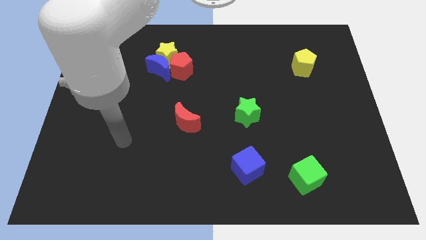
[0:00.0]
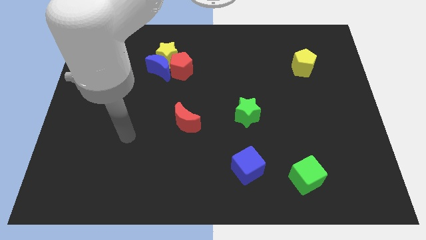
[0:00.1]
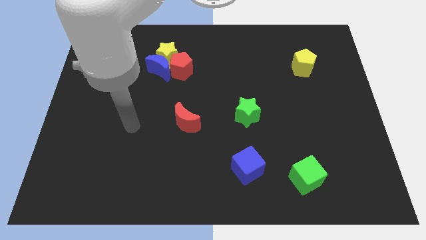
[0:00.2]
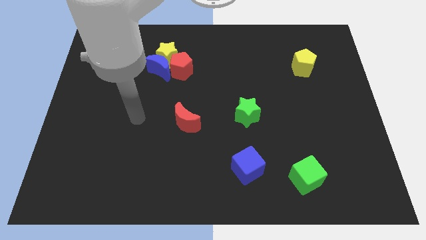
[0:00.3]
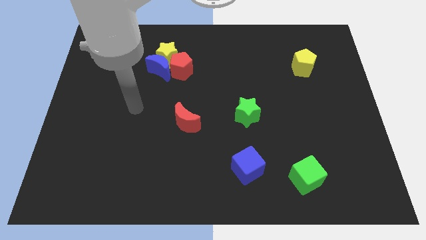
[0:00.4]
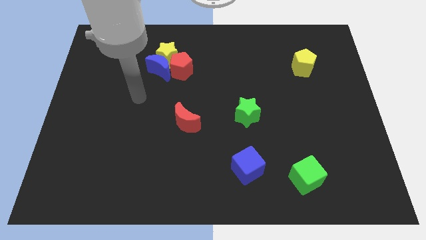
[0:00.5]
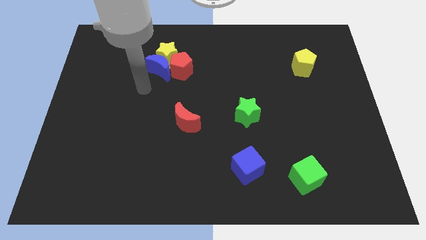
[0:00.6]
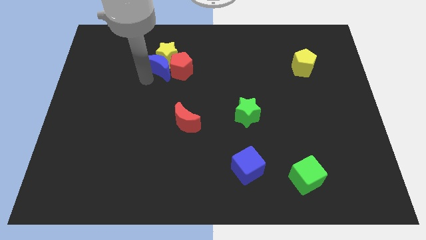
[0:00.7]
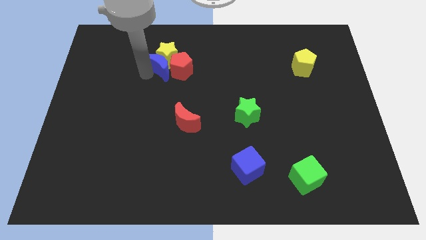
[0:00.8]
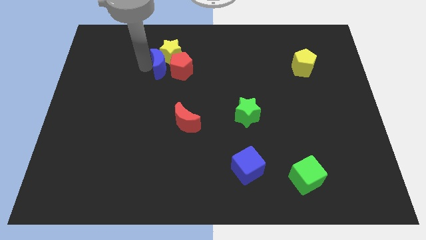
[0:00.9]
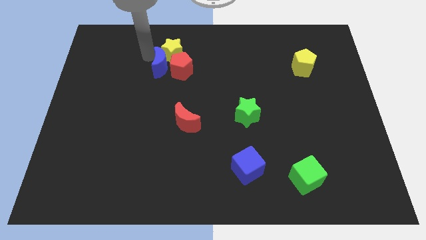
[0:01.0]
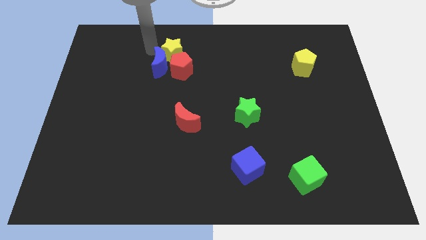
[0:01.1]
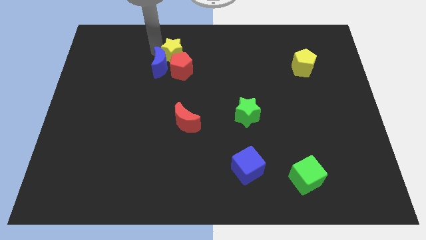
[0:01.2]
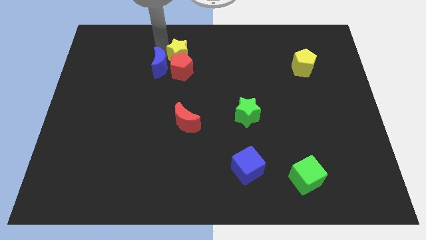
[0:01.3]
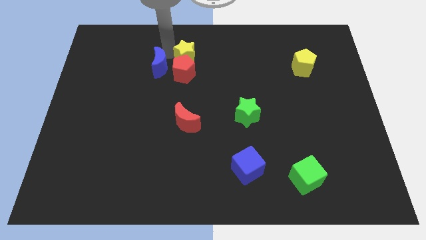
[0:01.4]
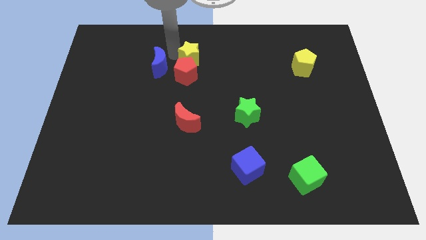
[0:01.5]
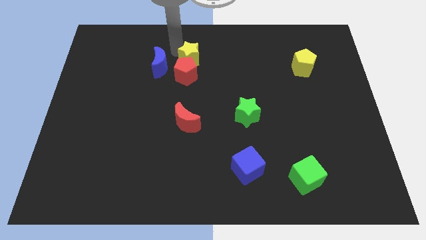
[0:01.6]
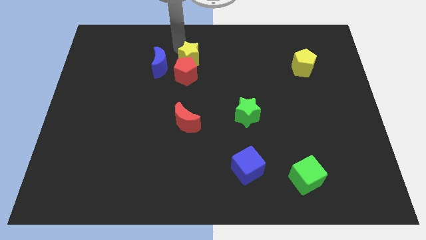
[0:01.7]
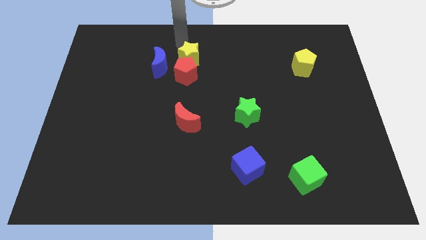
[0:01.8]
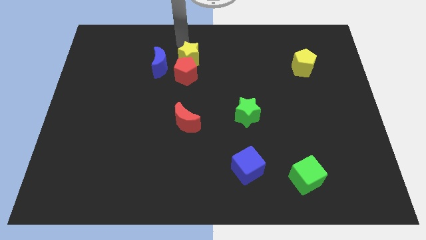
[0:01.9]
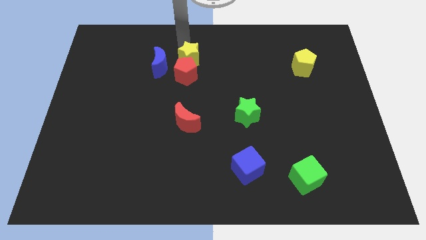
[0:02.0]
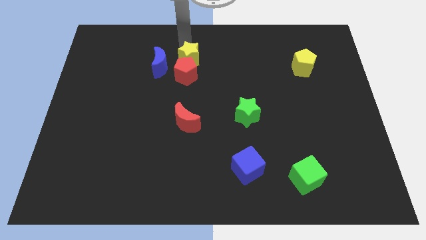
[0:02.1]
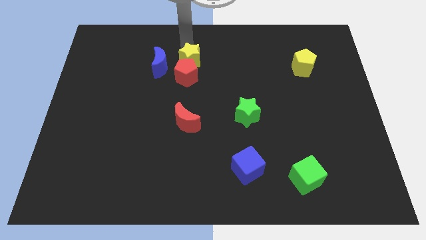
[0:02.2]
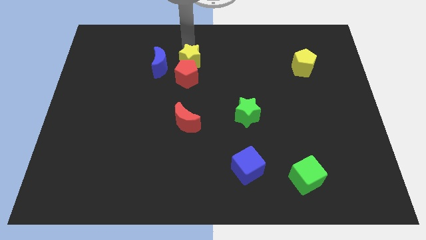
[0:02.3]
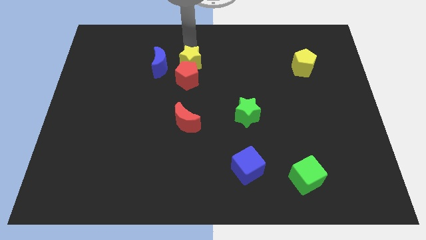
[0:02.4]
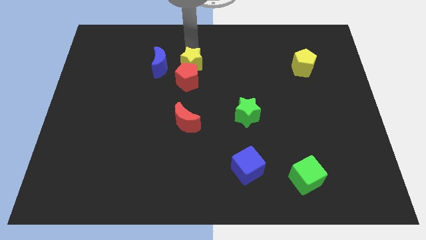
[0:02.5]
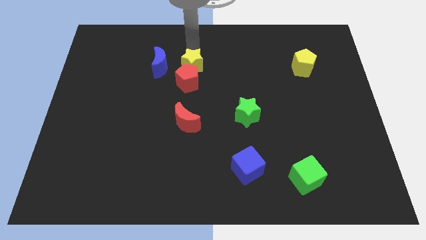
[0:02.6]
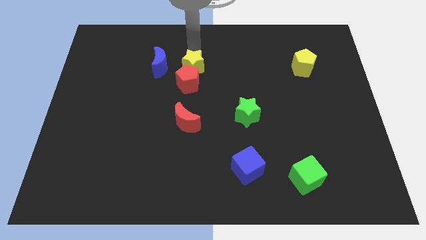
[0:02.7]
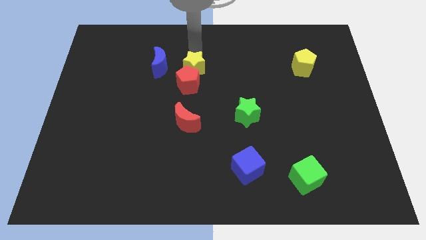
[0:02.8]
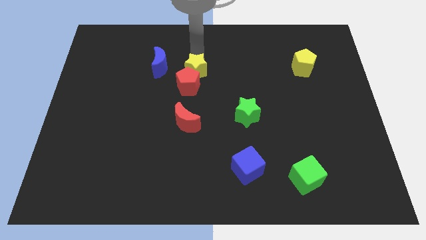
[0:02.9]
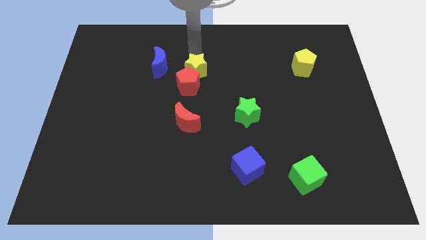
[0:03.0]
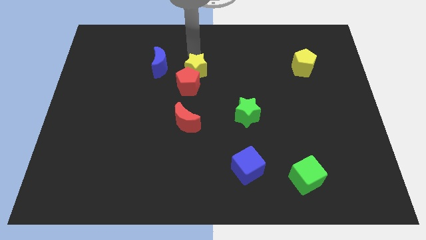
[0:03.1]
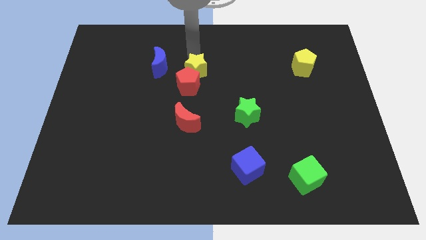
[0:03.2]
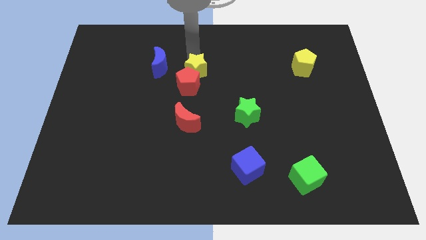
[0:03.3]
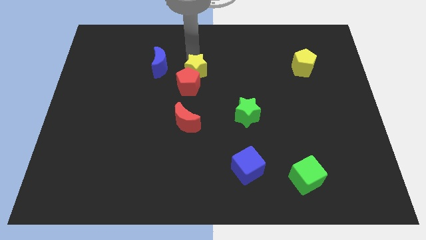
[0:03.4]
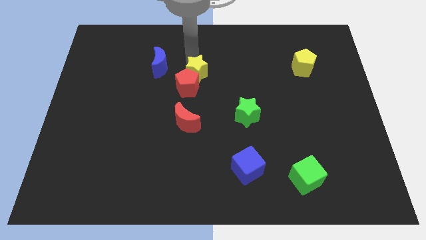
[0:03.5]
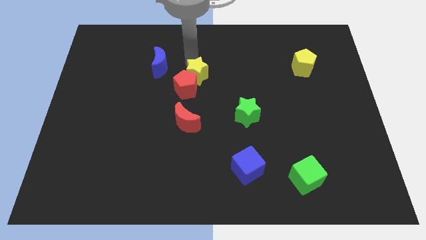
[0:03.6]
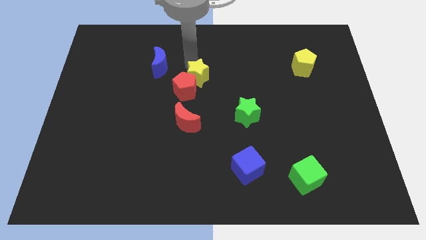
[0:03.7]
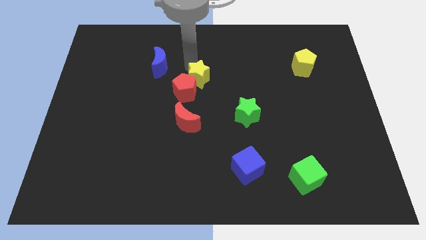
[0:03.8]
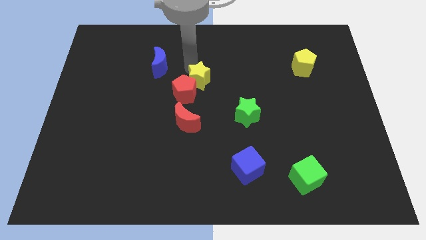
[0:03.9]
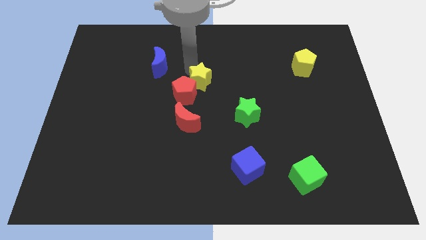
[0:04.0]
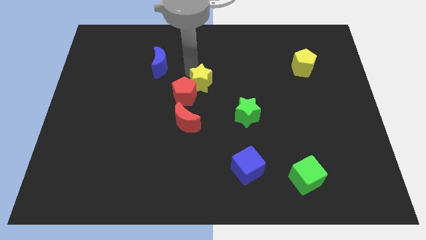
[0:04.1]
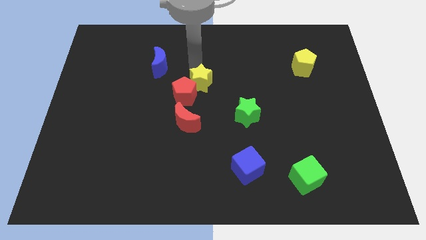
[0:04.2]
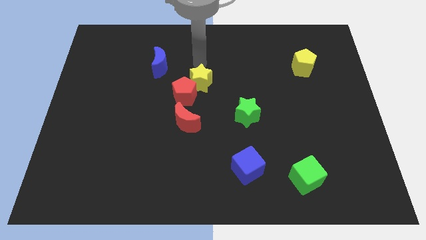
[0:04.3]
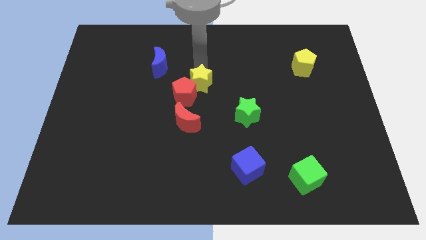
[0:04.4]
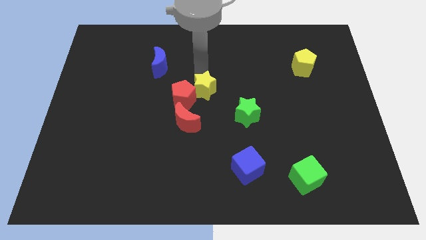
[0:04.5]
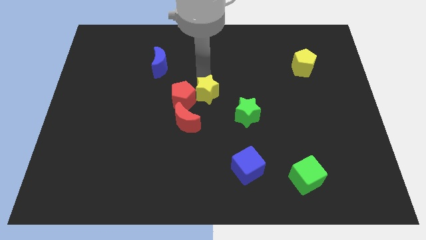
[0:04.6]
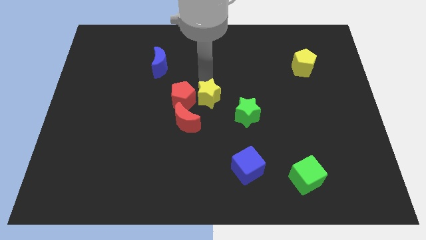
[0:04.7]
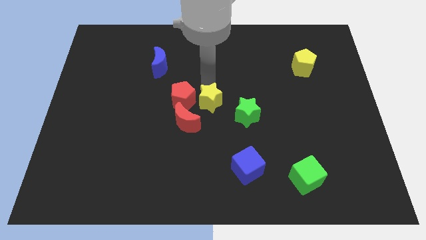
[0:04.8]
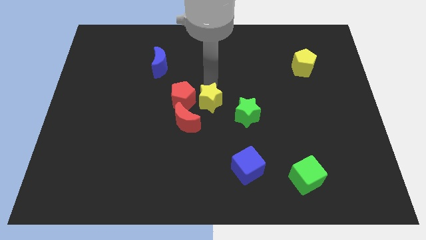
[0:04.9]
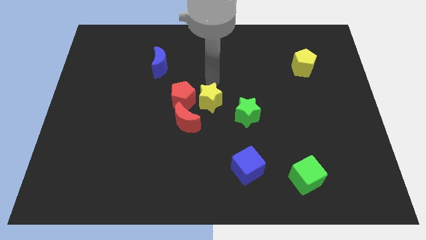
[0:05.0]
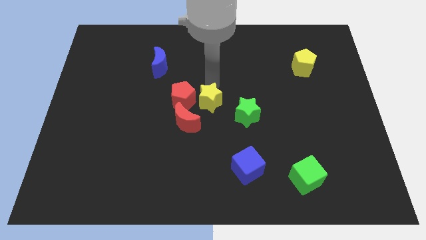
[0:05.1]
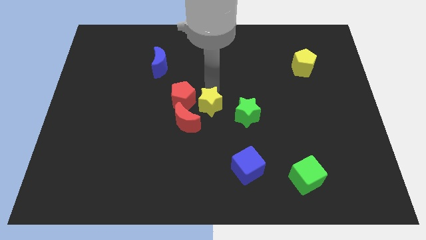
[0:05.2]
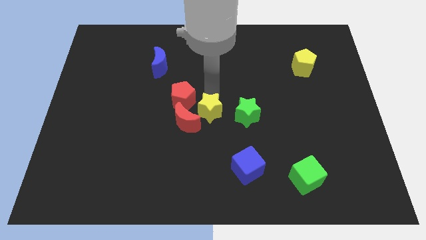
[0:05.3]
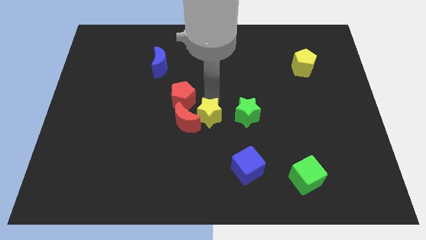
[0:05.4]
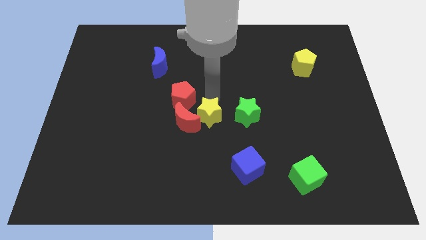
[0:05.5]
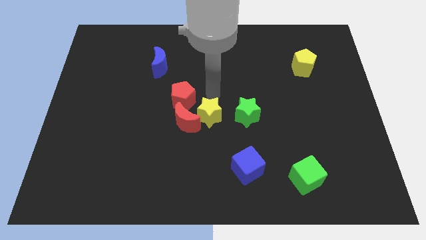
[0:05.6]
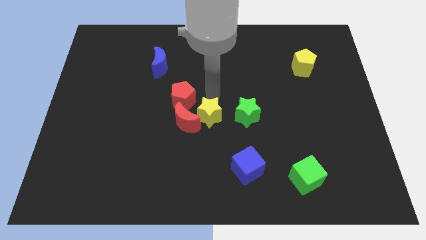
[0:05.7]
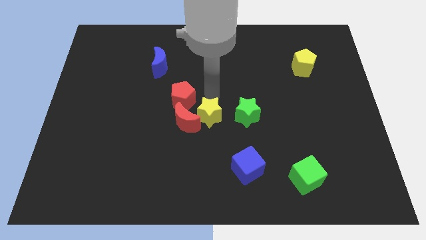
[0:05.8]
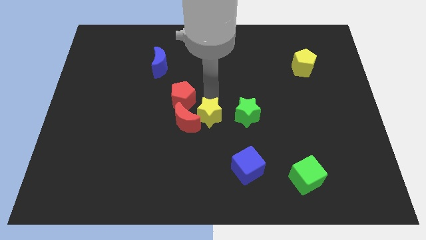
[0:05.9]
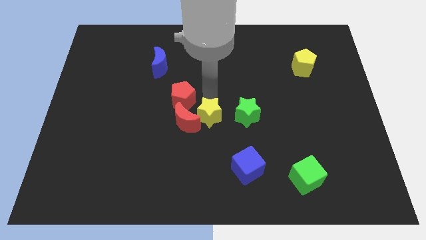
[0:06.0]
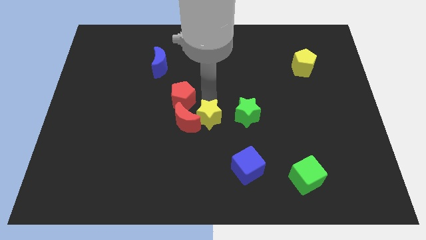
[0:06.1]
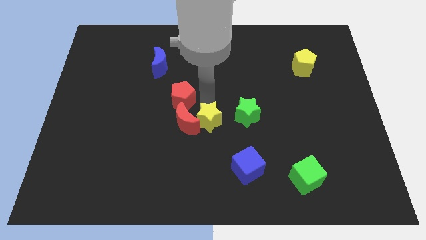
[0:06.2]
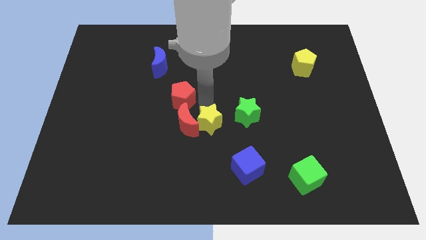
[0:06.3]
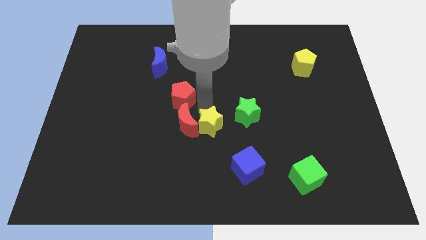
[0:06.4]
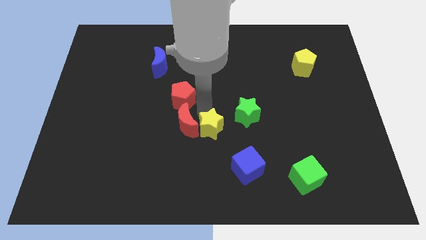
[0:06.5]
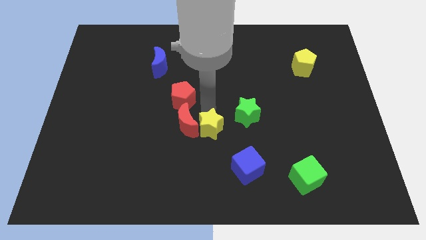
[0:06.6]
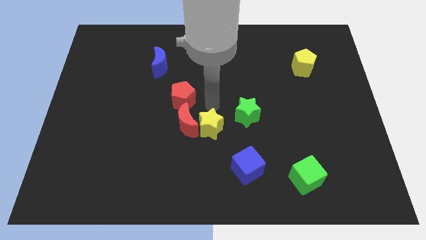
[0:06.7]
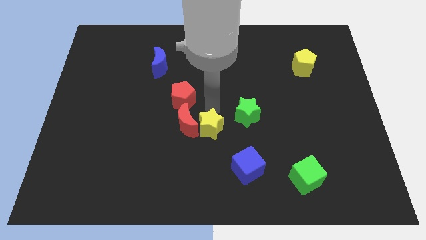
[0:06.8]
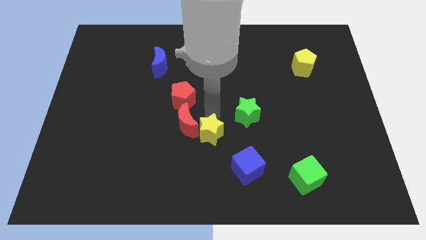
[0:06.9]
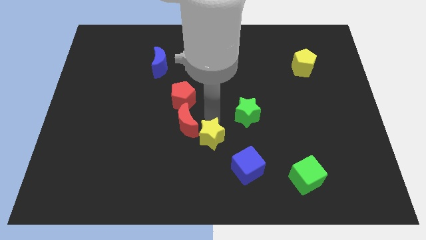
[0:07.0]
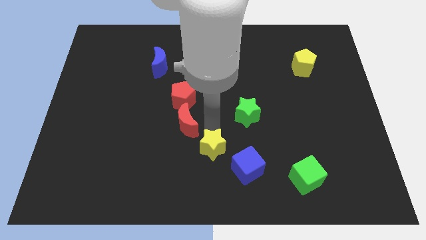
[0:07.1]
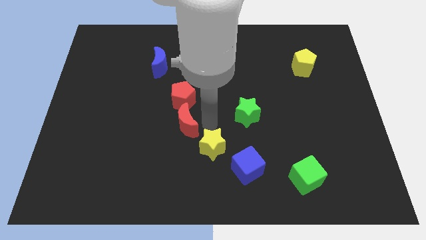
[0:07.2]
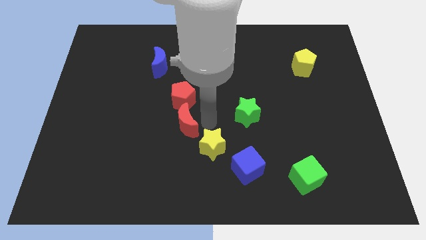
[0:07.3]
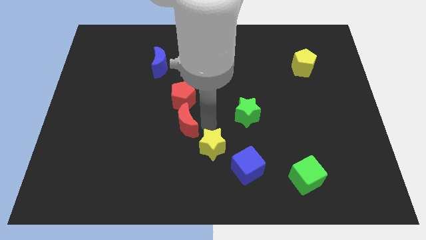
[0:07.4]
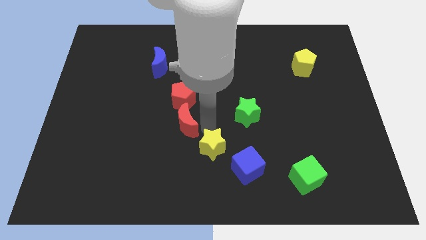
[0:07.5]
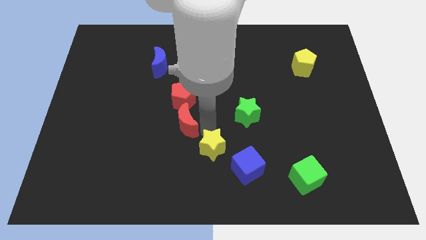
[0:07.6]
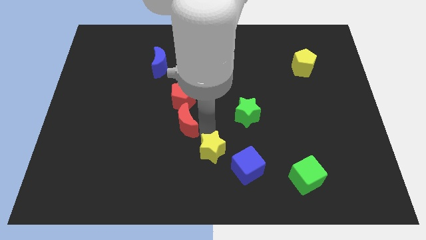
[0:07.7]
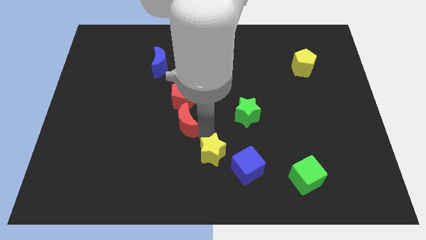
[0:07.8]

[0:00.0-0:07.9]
push the yellow star to the bottom side
